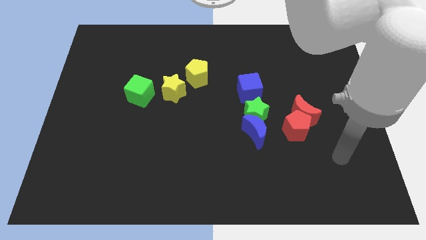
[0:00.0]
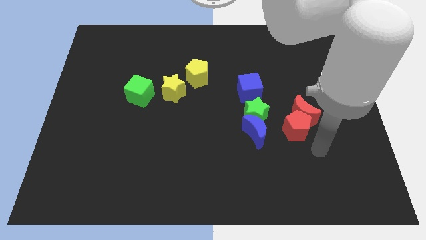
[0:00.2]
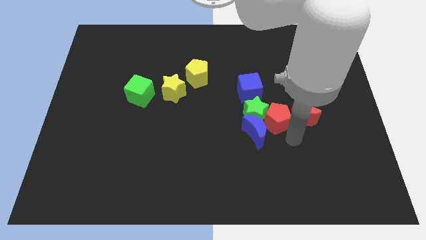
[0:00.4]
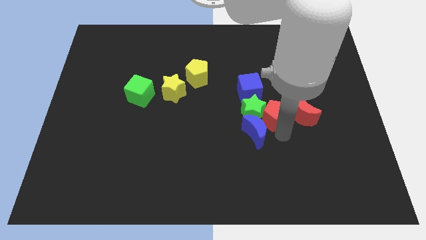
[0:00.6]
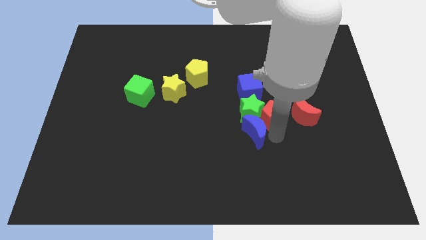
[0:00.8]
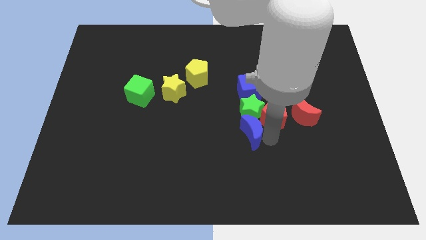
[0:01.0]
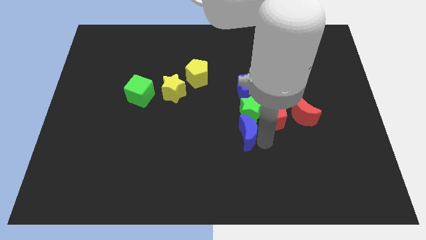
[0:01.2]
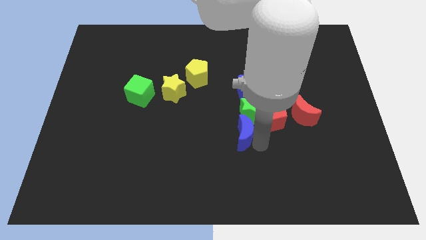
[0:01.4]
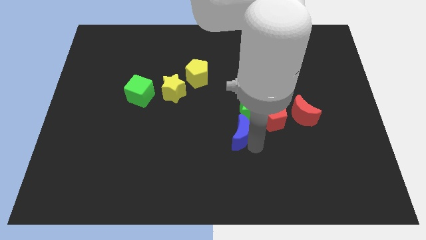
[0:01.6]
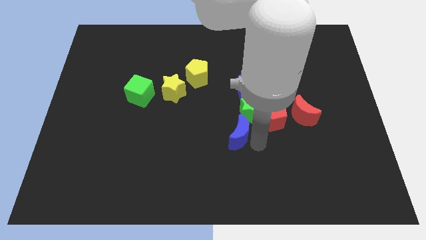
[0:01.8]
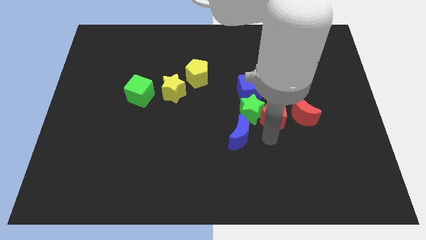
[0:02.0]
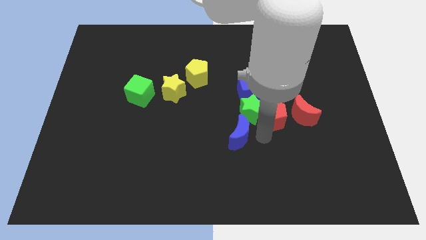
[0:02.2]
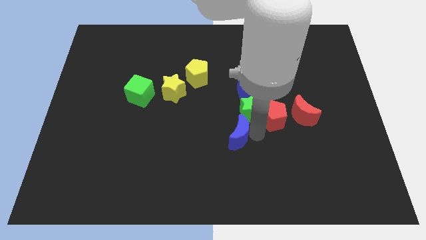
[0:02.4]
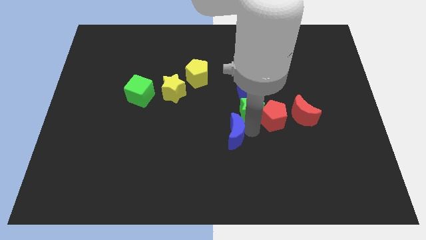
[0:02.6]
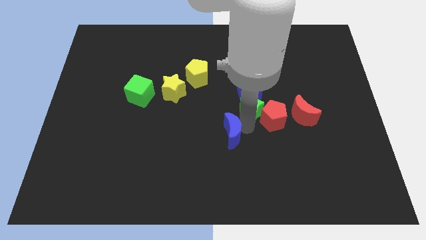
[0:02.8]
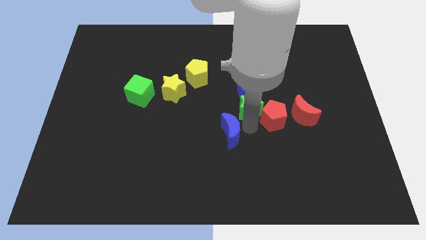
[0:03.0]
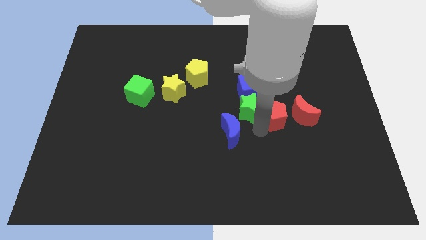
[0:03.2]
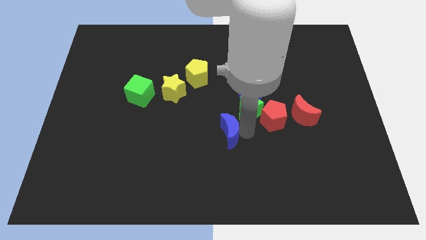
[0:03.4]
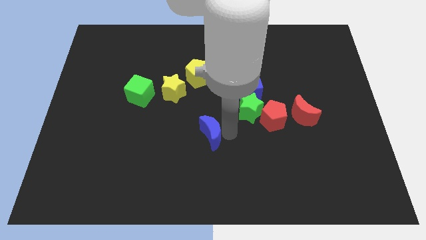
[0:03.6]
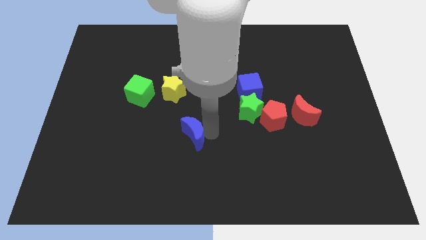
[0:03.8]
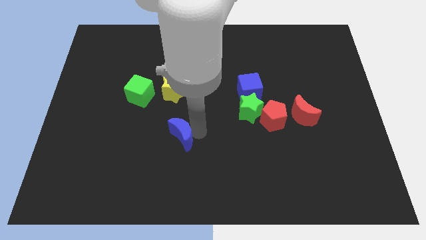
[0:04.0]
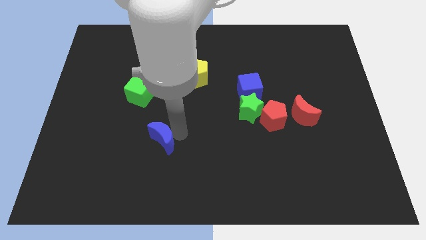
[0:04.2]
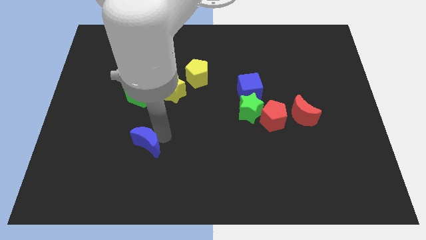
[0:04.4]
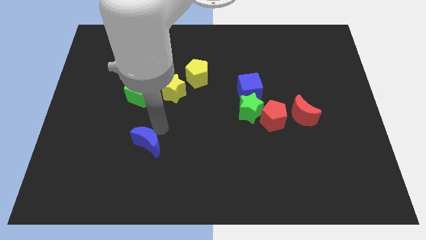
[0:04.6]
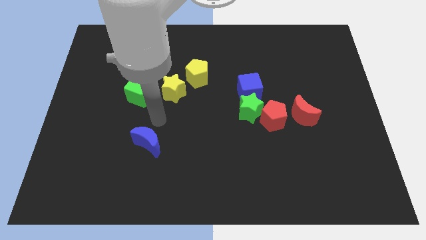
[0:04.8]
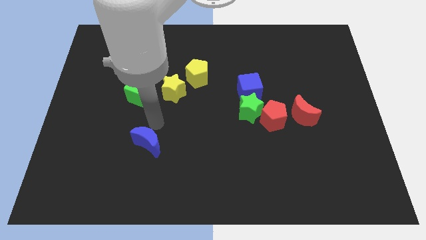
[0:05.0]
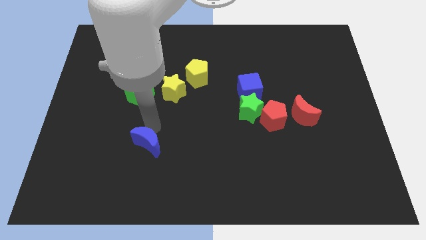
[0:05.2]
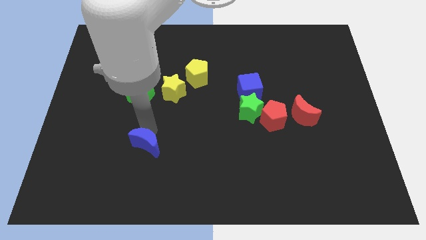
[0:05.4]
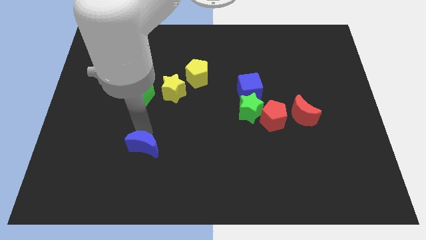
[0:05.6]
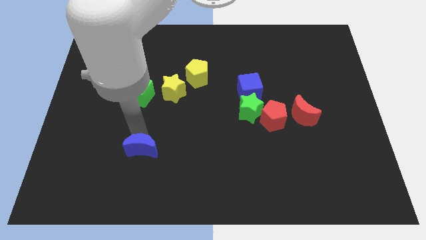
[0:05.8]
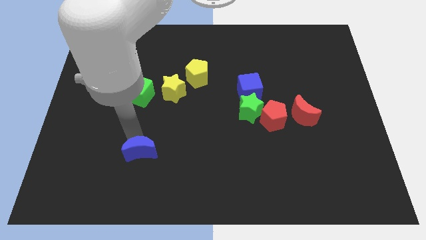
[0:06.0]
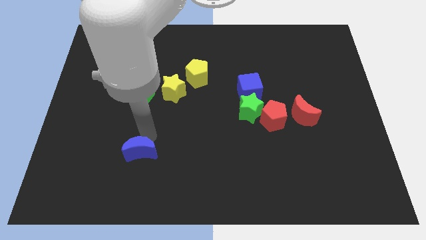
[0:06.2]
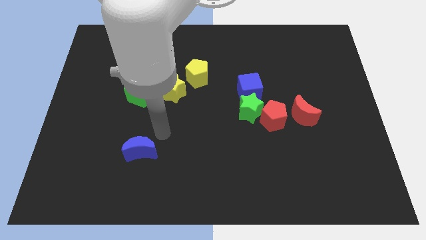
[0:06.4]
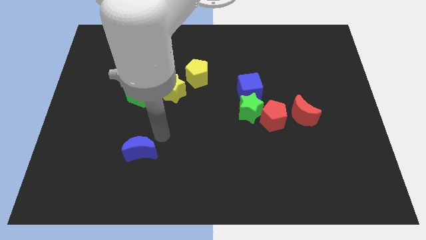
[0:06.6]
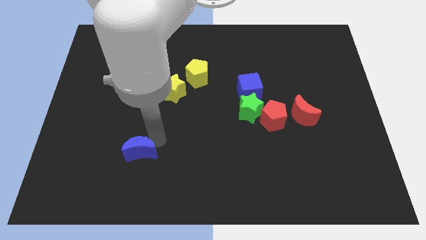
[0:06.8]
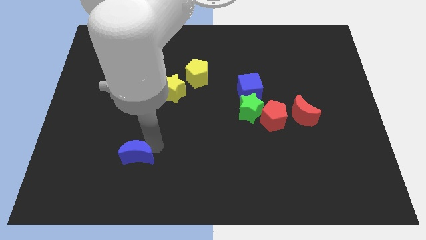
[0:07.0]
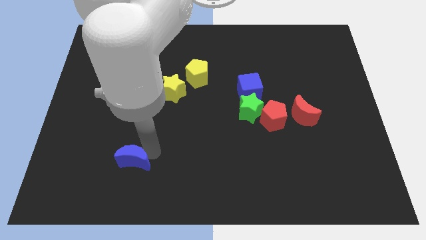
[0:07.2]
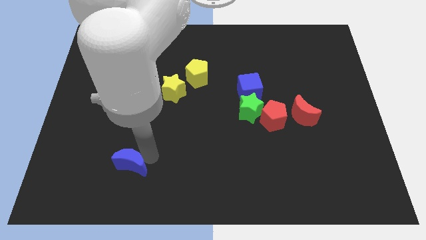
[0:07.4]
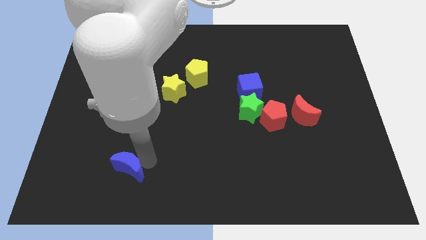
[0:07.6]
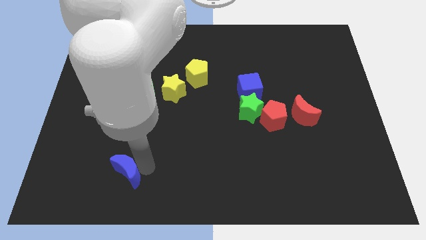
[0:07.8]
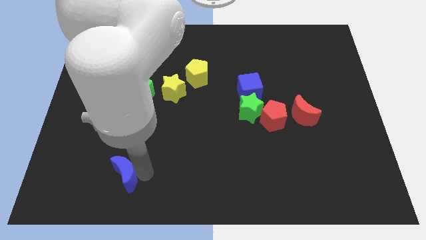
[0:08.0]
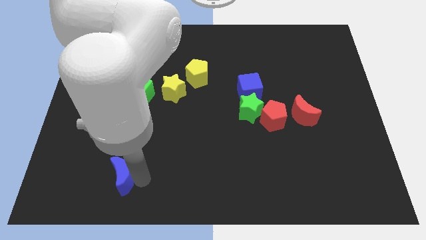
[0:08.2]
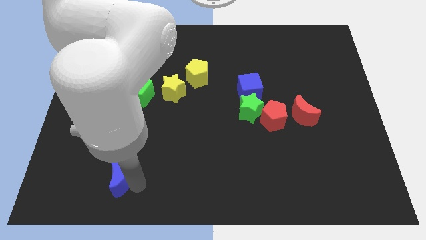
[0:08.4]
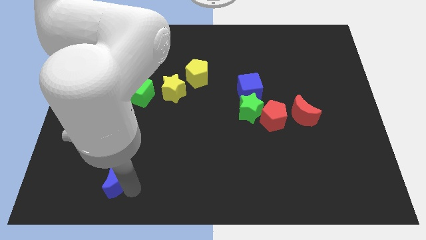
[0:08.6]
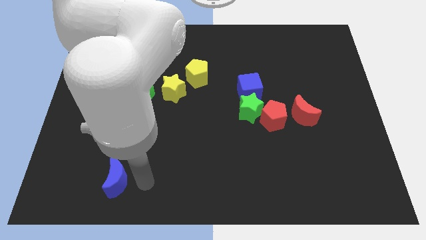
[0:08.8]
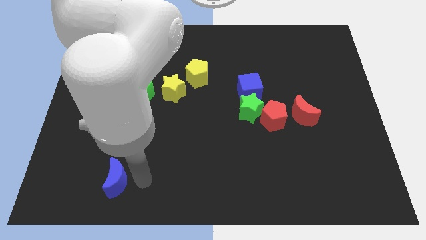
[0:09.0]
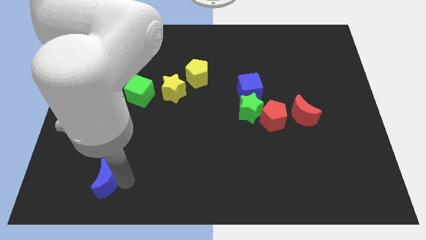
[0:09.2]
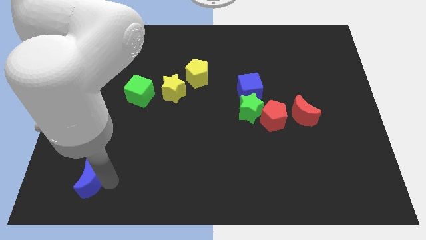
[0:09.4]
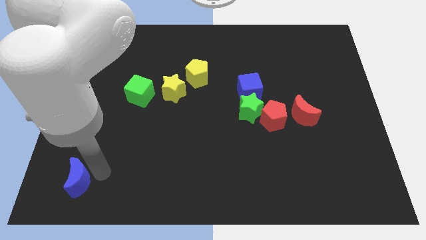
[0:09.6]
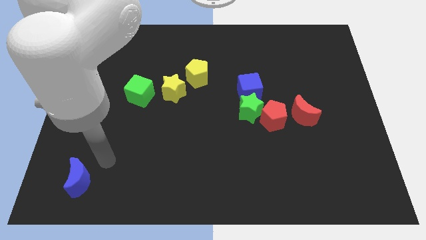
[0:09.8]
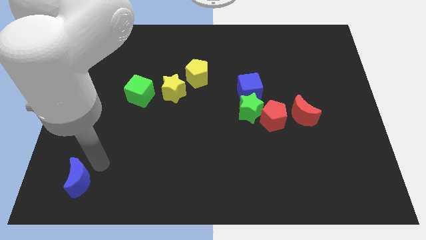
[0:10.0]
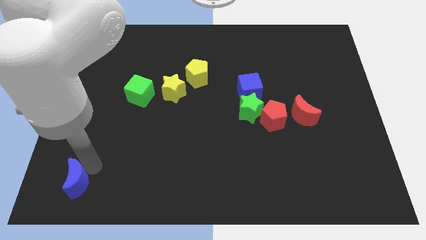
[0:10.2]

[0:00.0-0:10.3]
slide the blue moon to the bottom left corner

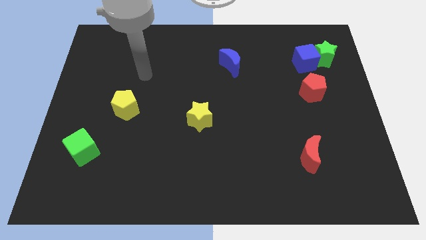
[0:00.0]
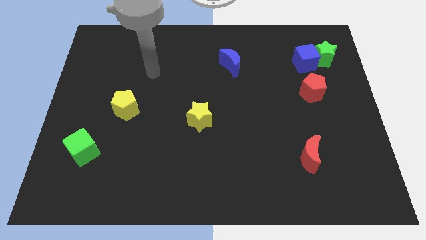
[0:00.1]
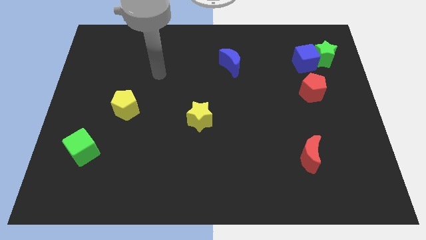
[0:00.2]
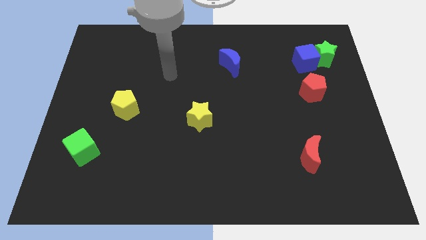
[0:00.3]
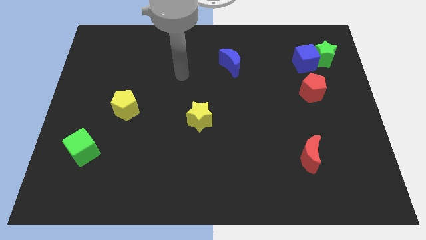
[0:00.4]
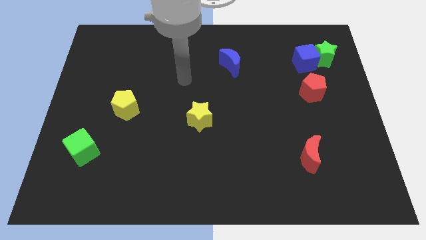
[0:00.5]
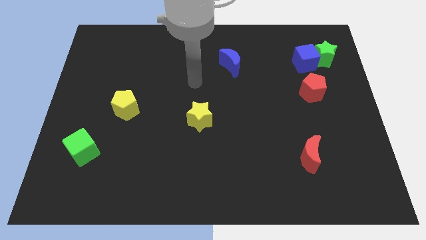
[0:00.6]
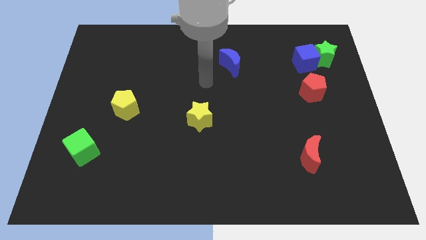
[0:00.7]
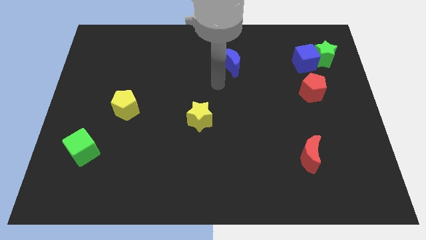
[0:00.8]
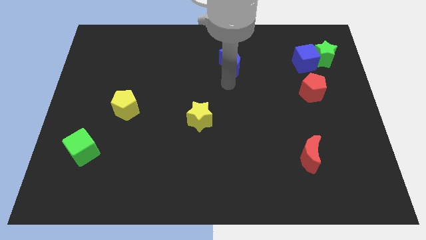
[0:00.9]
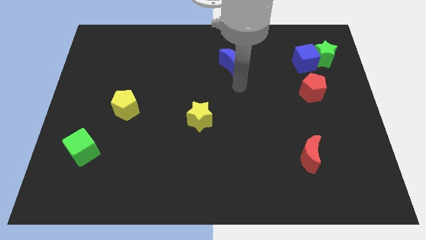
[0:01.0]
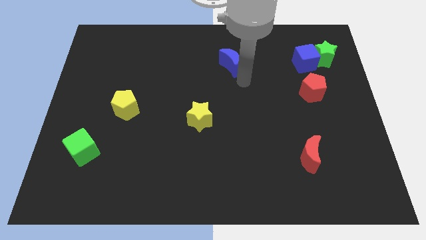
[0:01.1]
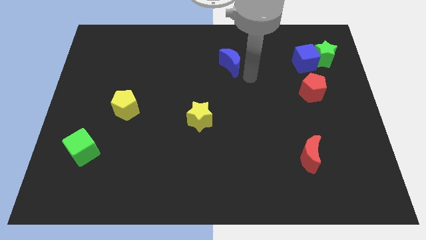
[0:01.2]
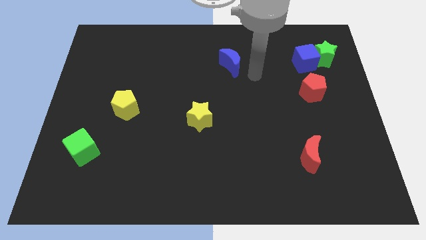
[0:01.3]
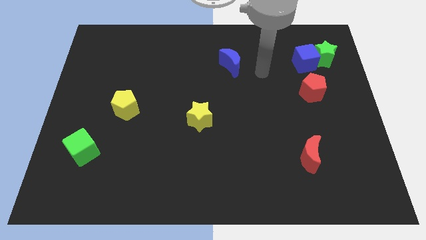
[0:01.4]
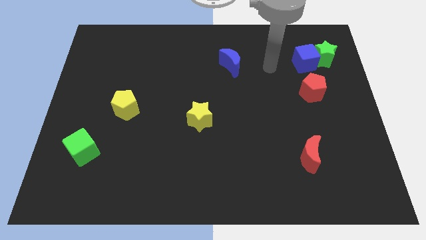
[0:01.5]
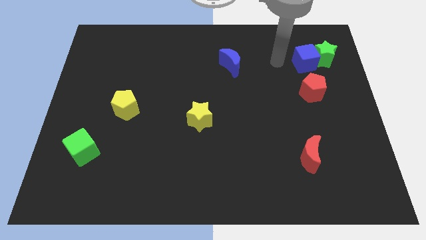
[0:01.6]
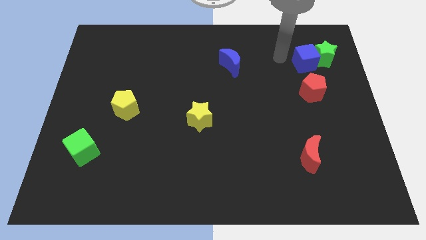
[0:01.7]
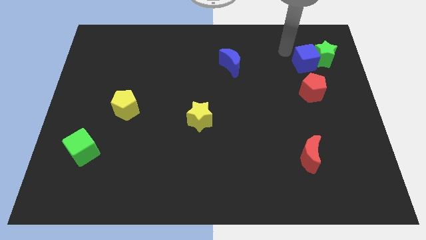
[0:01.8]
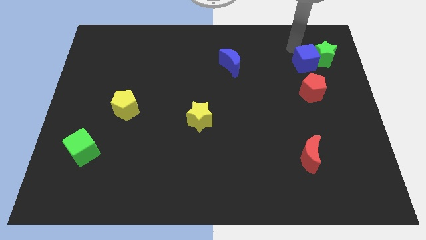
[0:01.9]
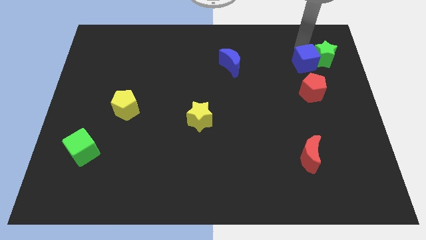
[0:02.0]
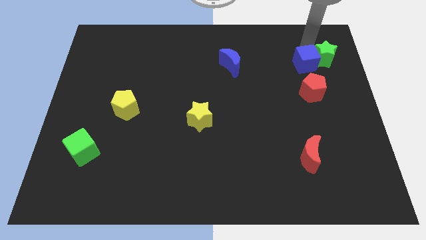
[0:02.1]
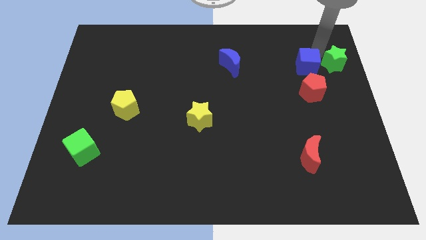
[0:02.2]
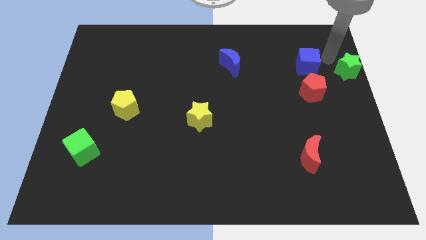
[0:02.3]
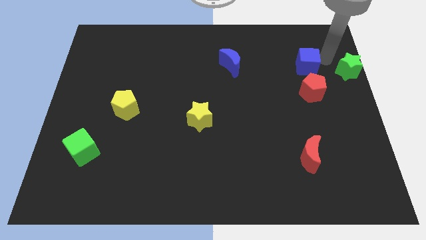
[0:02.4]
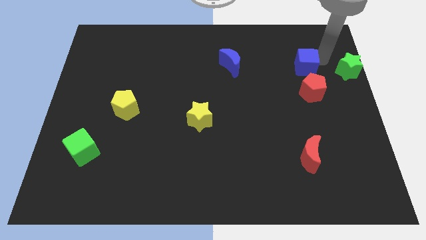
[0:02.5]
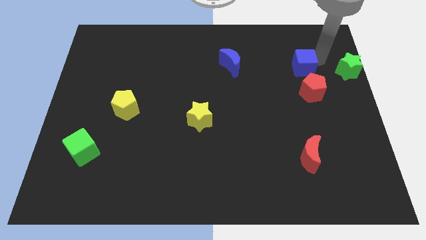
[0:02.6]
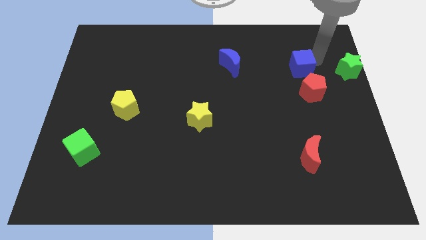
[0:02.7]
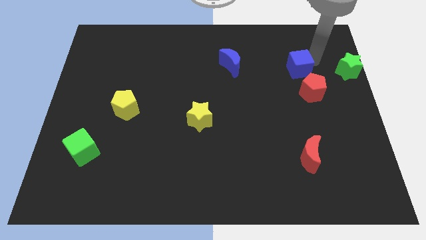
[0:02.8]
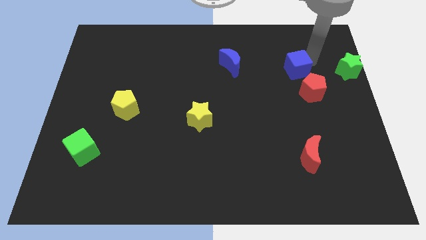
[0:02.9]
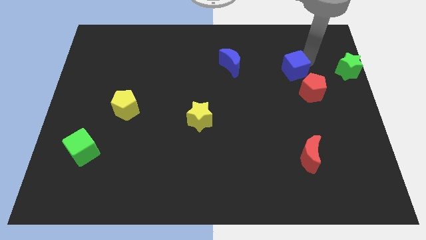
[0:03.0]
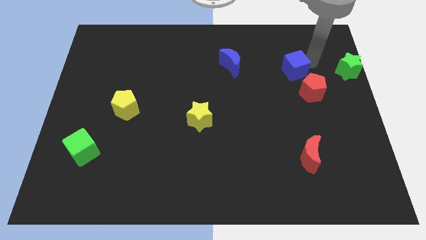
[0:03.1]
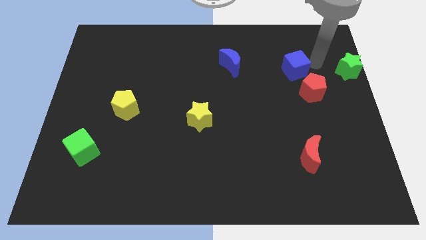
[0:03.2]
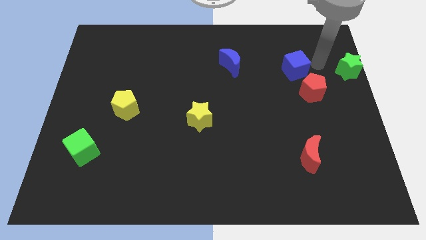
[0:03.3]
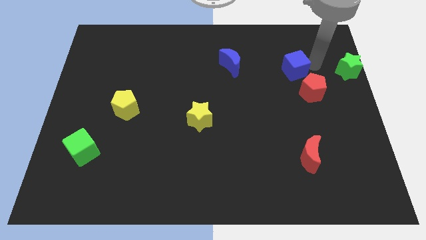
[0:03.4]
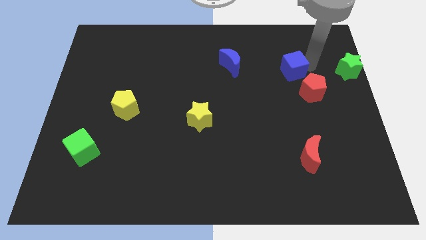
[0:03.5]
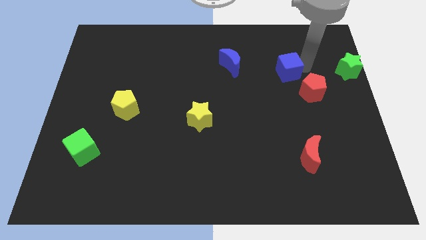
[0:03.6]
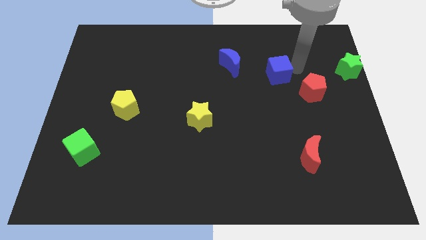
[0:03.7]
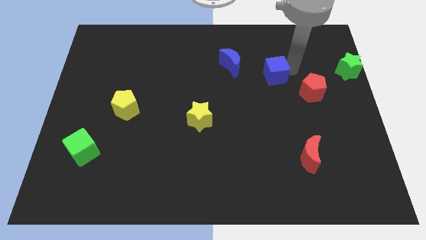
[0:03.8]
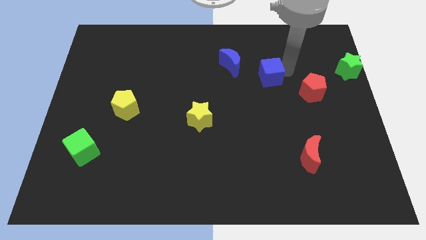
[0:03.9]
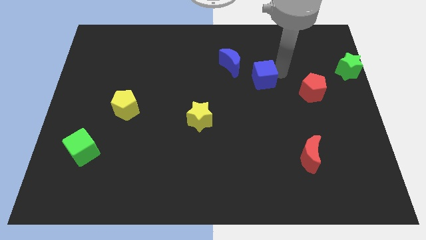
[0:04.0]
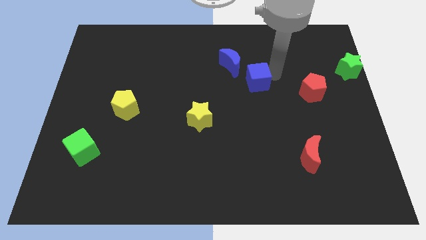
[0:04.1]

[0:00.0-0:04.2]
put the blue cube to the center of the board
